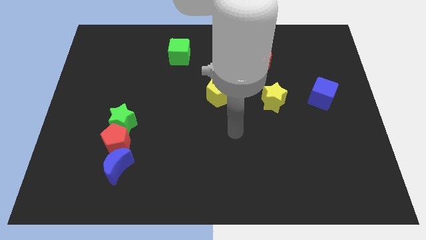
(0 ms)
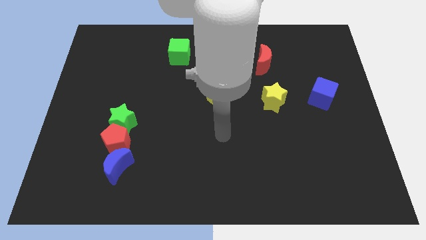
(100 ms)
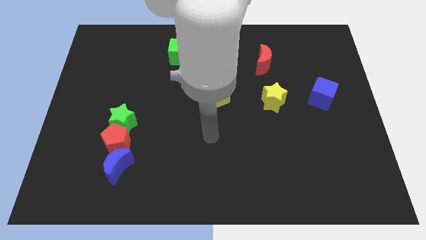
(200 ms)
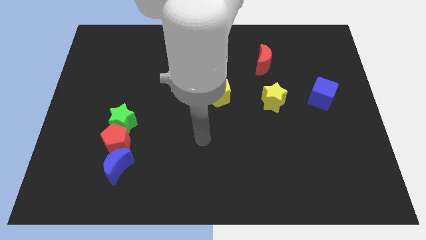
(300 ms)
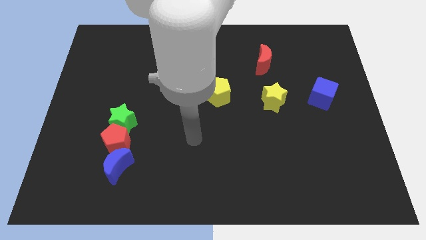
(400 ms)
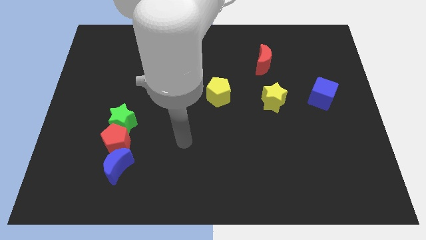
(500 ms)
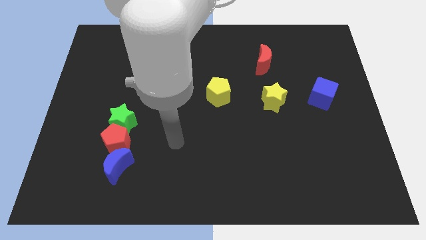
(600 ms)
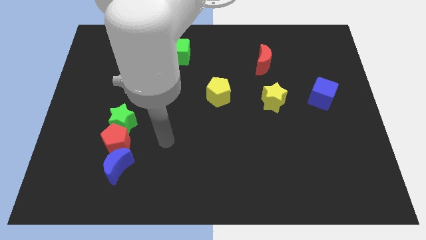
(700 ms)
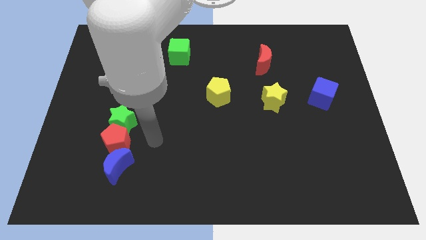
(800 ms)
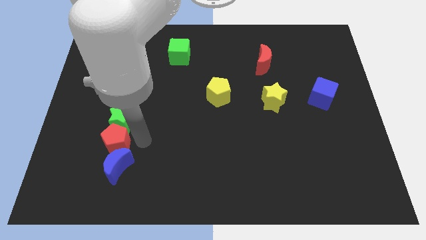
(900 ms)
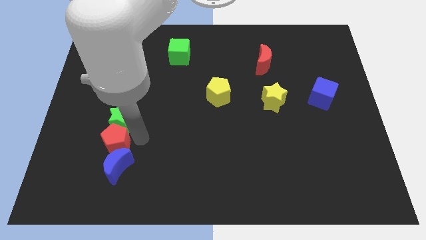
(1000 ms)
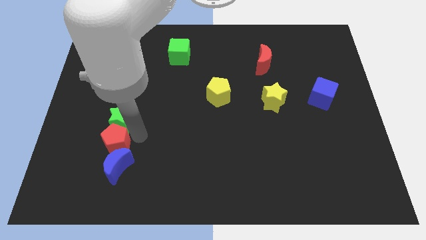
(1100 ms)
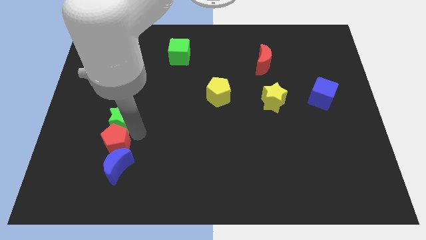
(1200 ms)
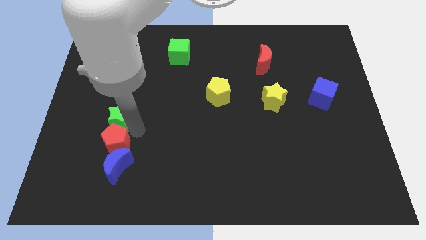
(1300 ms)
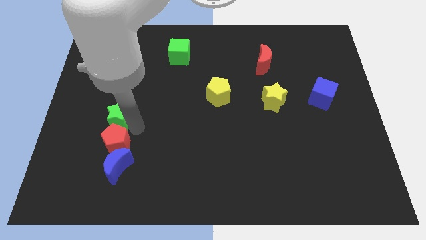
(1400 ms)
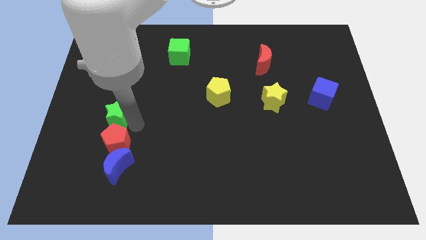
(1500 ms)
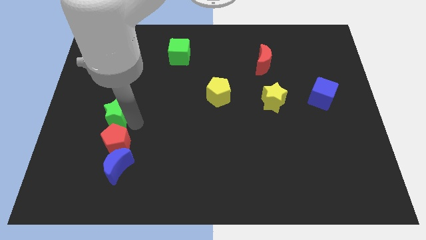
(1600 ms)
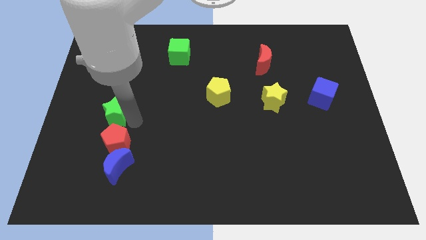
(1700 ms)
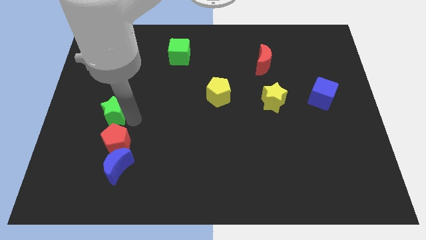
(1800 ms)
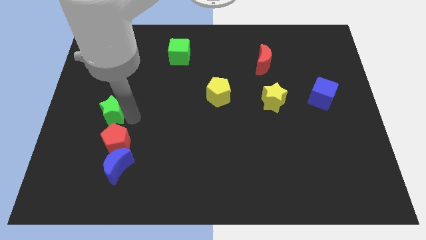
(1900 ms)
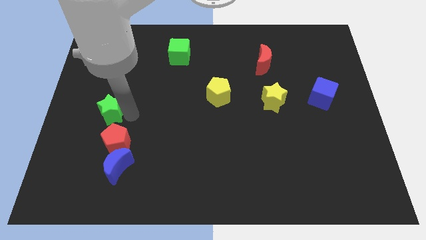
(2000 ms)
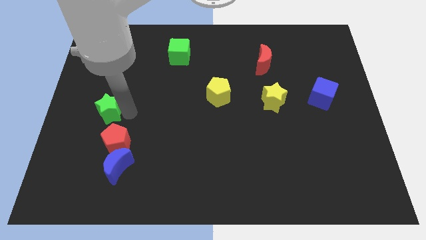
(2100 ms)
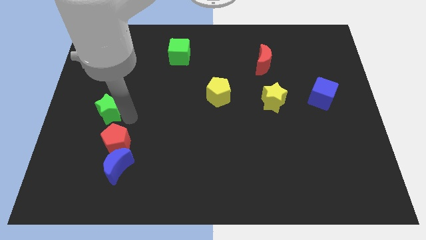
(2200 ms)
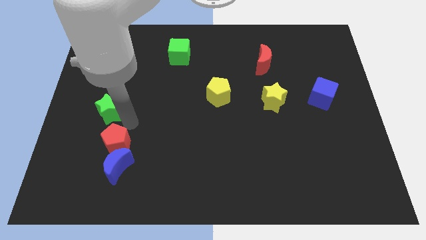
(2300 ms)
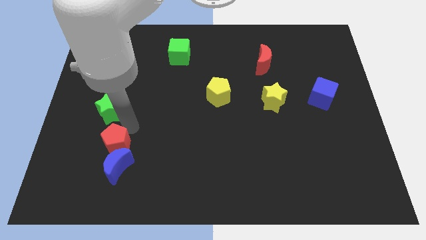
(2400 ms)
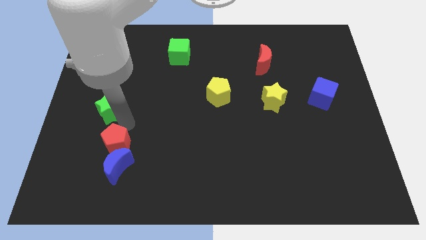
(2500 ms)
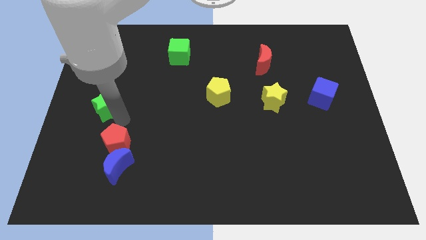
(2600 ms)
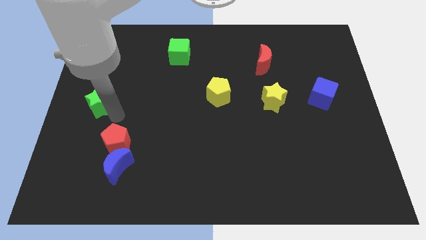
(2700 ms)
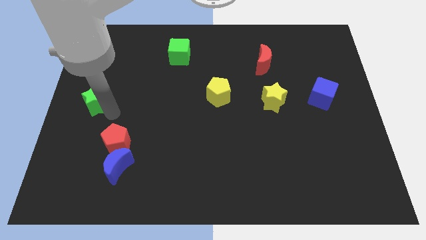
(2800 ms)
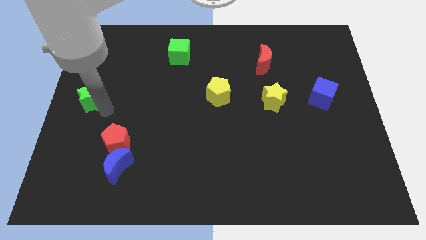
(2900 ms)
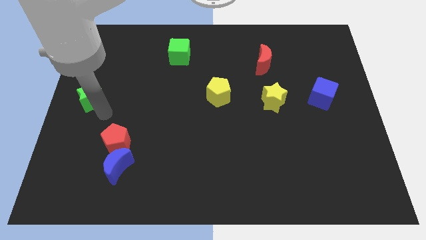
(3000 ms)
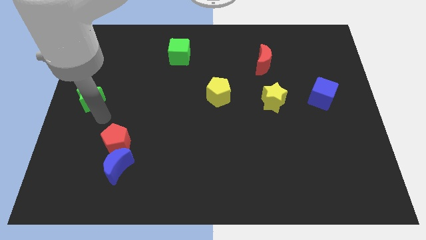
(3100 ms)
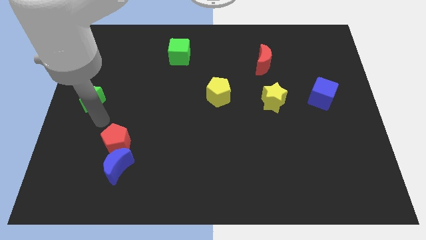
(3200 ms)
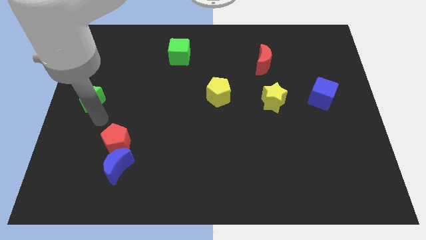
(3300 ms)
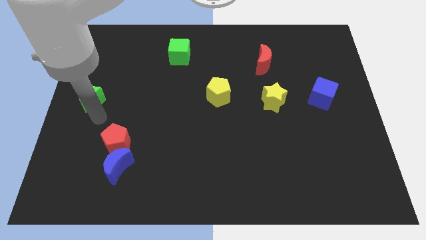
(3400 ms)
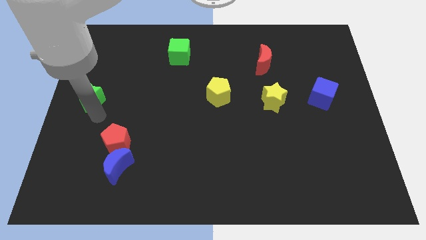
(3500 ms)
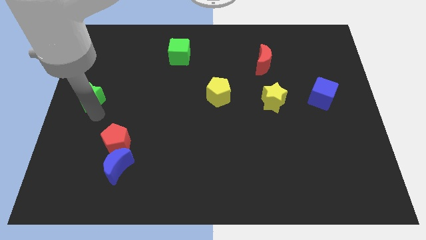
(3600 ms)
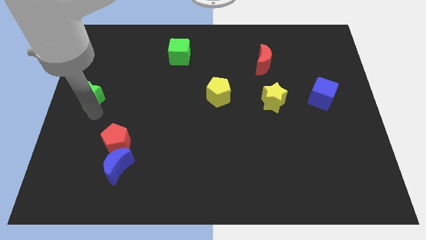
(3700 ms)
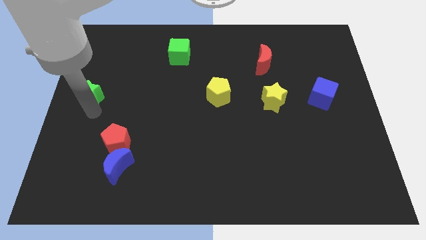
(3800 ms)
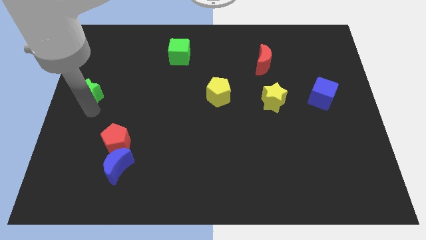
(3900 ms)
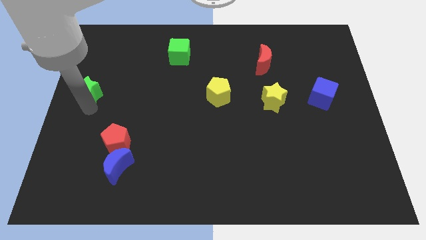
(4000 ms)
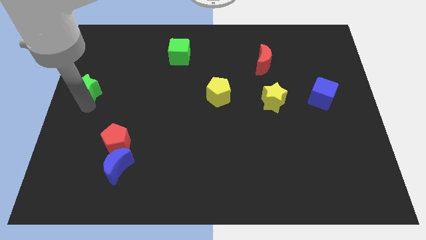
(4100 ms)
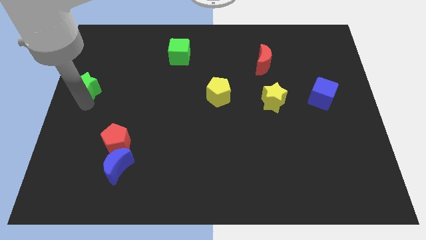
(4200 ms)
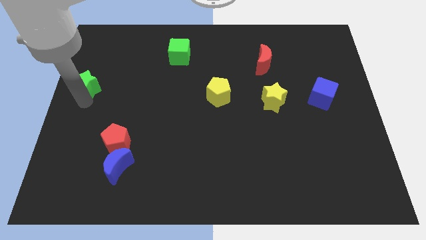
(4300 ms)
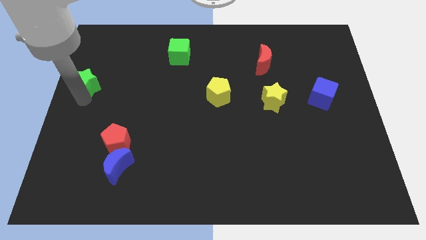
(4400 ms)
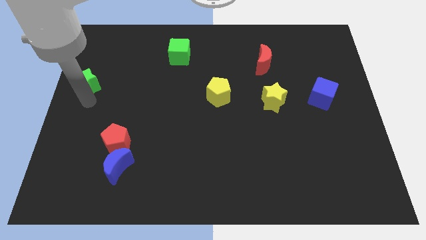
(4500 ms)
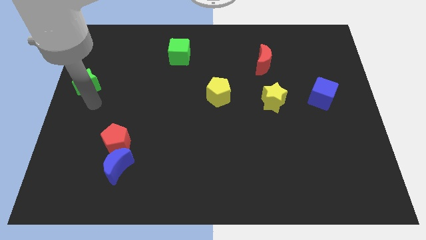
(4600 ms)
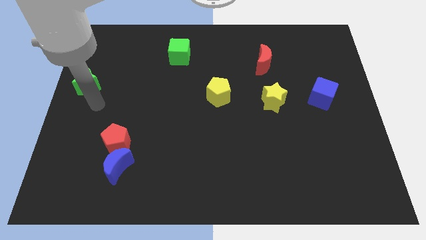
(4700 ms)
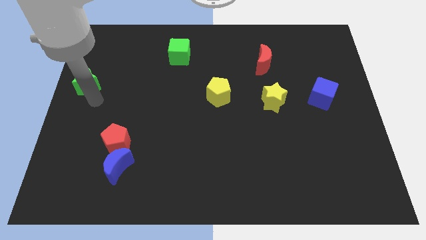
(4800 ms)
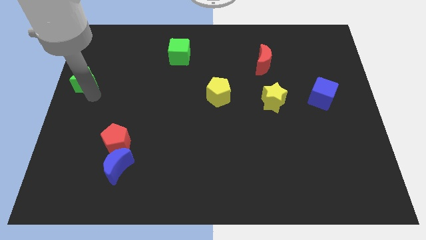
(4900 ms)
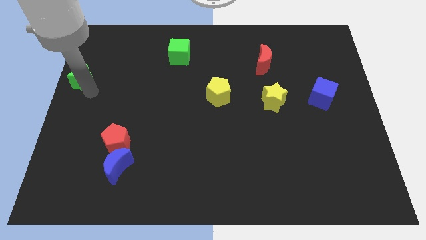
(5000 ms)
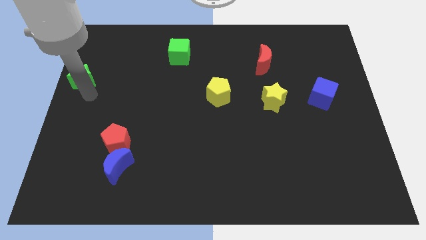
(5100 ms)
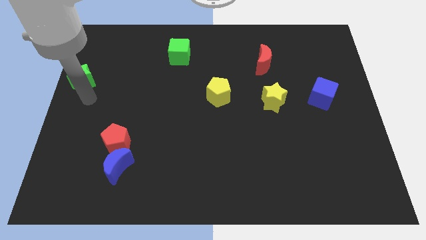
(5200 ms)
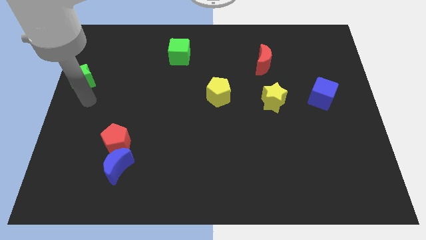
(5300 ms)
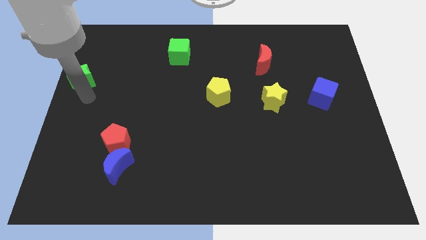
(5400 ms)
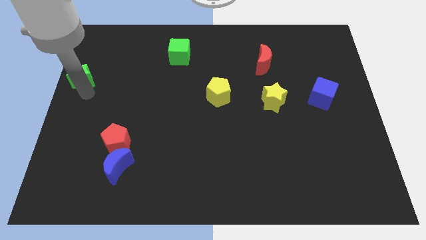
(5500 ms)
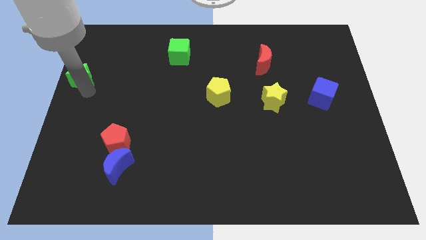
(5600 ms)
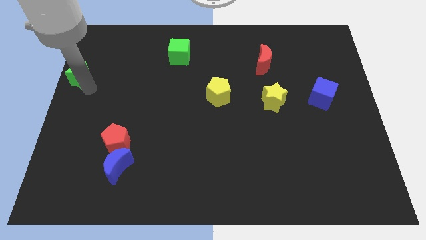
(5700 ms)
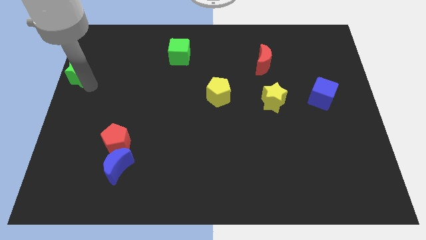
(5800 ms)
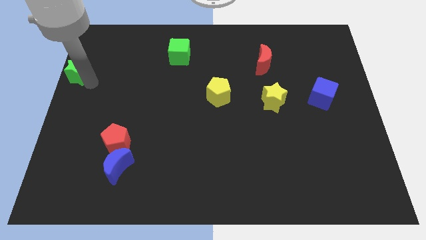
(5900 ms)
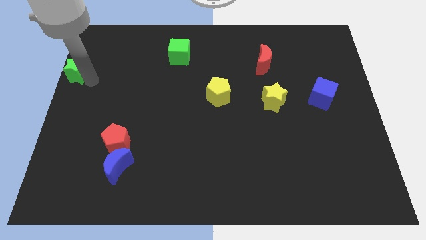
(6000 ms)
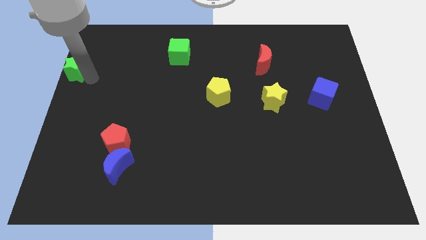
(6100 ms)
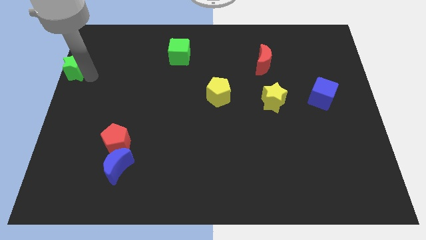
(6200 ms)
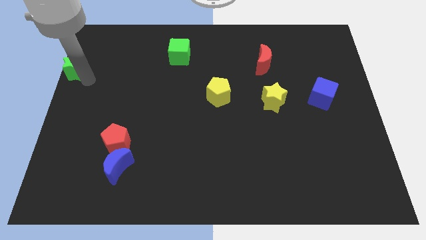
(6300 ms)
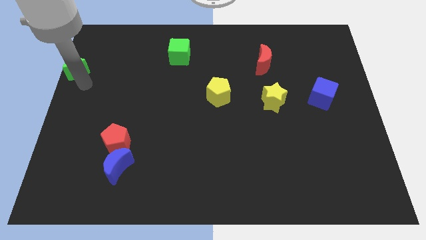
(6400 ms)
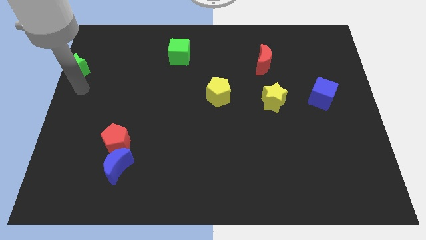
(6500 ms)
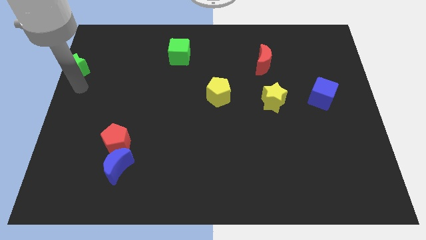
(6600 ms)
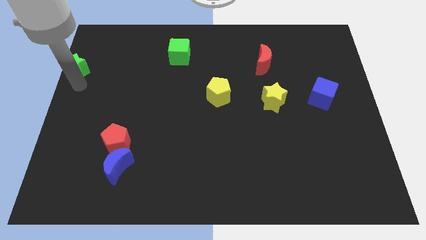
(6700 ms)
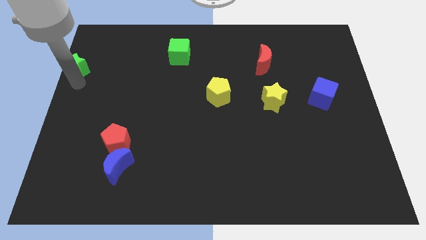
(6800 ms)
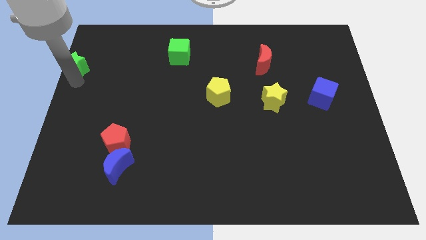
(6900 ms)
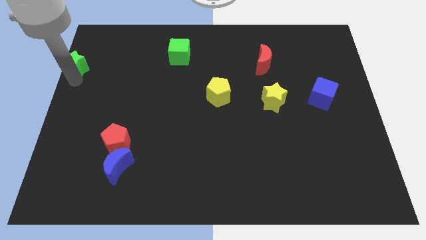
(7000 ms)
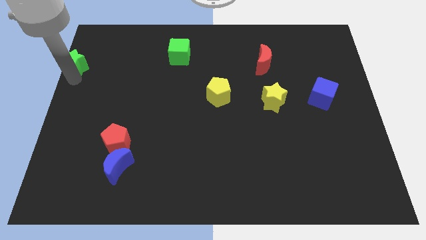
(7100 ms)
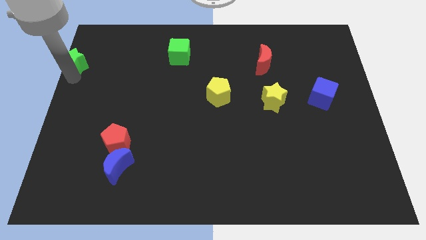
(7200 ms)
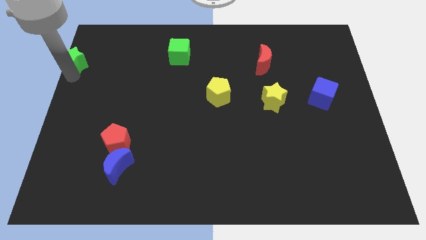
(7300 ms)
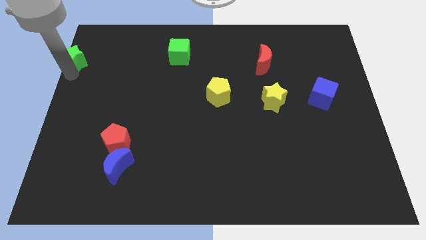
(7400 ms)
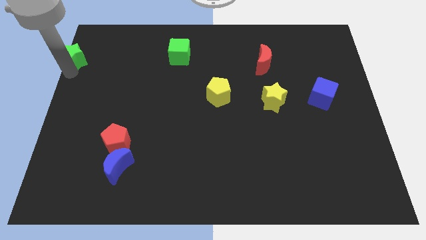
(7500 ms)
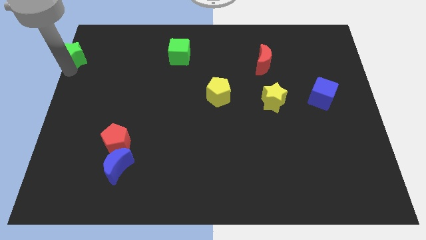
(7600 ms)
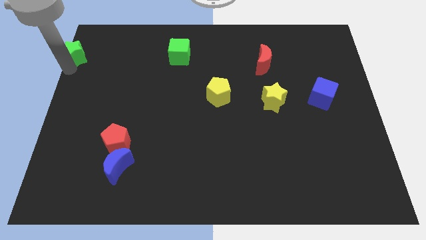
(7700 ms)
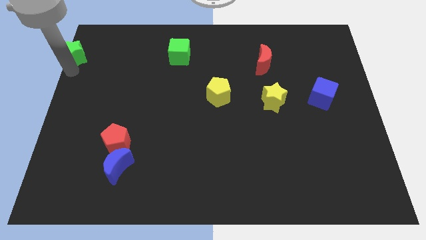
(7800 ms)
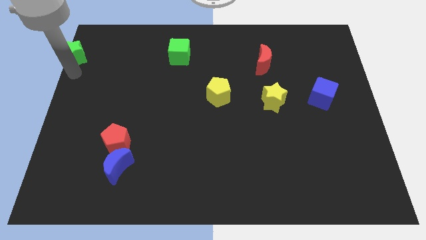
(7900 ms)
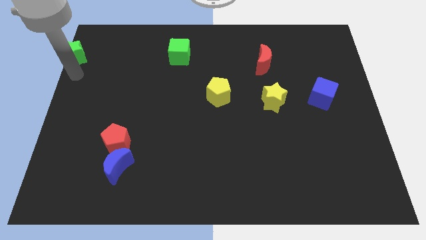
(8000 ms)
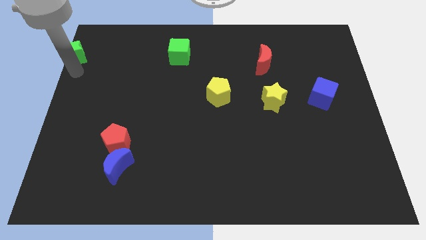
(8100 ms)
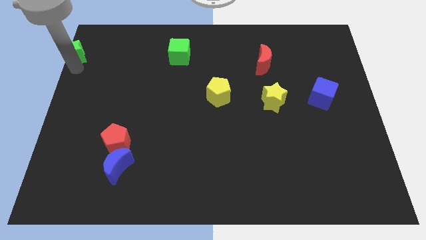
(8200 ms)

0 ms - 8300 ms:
push the green star to the top left of the board
